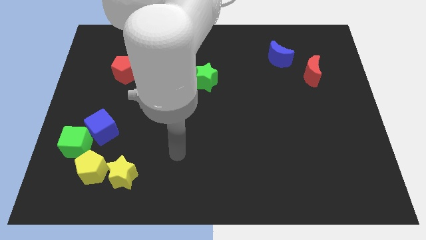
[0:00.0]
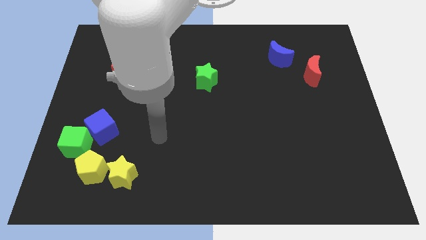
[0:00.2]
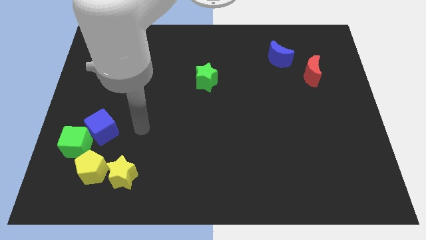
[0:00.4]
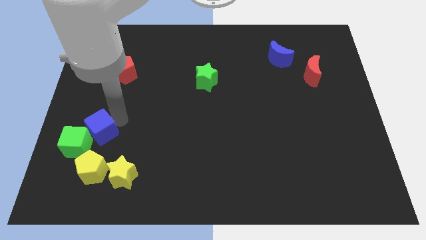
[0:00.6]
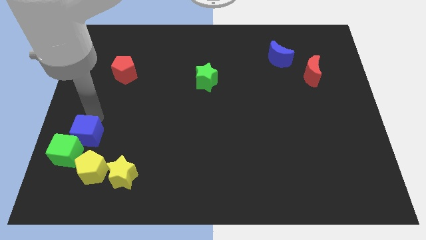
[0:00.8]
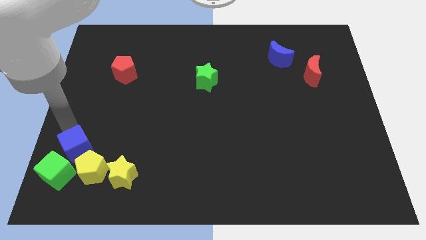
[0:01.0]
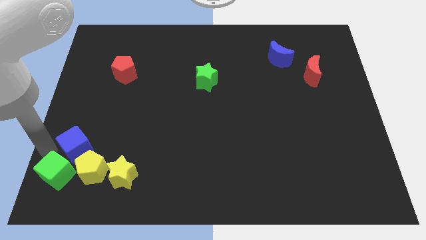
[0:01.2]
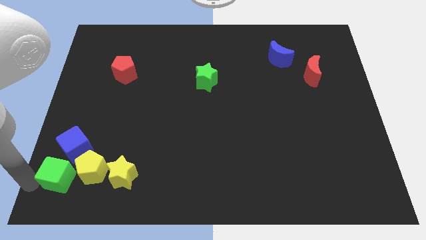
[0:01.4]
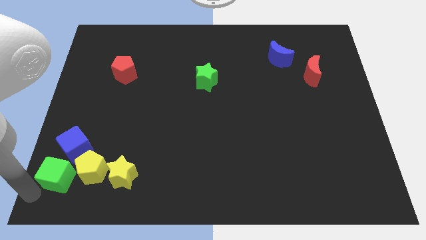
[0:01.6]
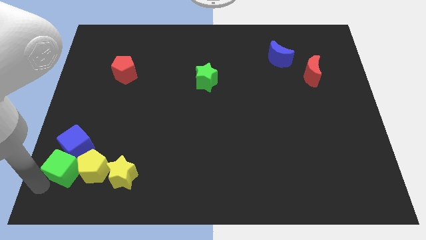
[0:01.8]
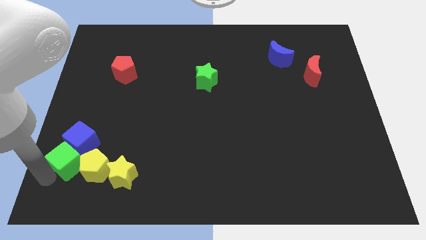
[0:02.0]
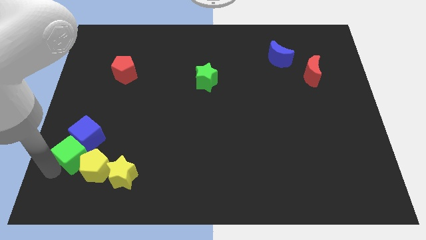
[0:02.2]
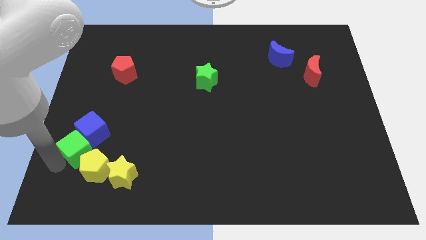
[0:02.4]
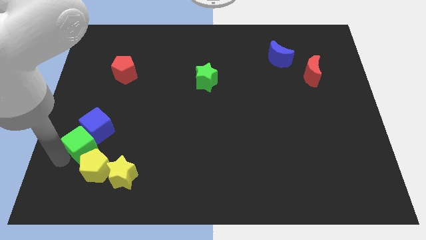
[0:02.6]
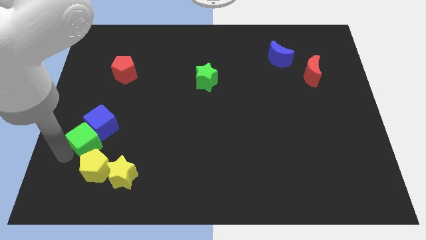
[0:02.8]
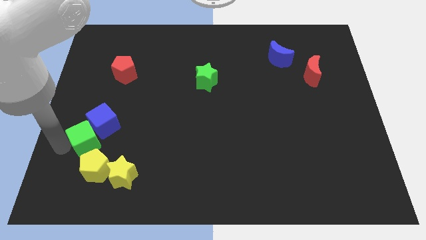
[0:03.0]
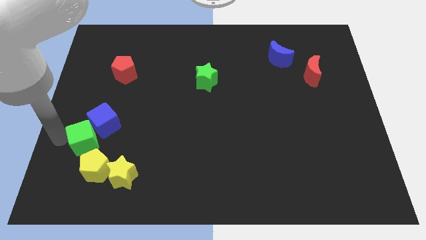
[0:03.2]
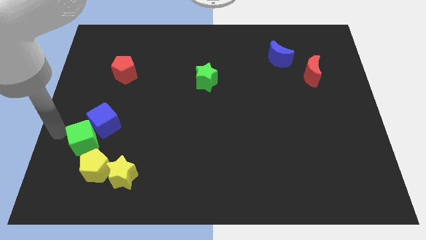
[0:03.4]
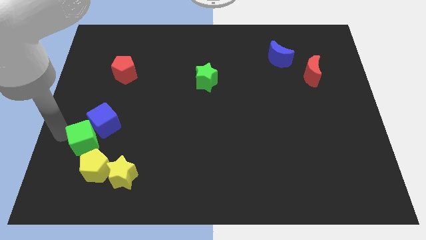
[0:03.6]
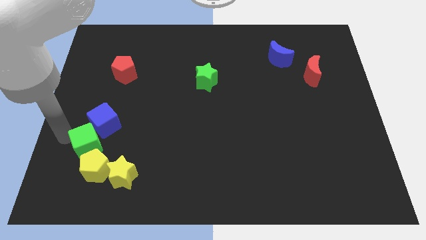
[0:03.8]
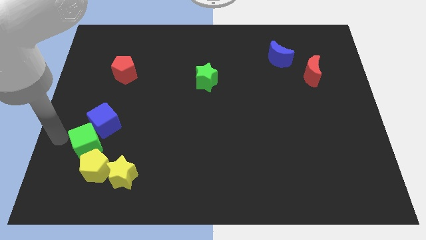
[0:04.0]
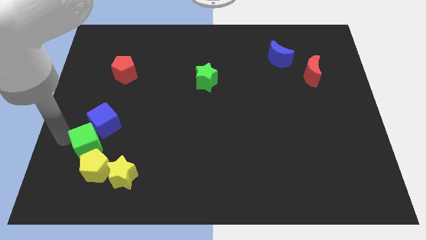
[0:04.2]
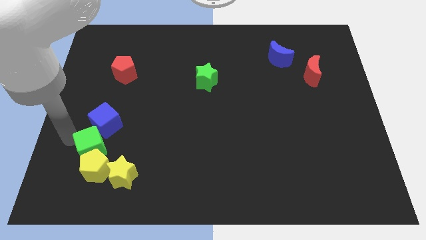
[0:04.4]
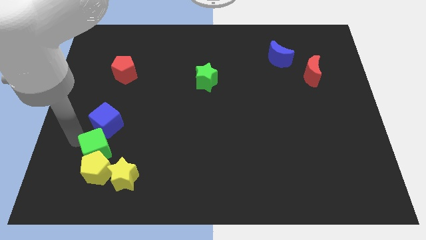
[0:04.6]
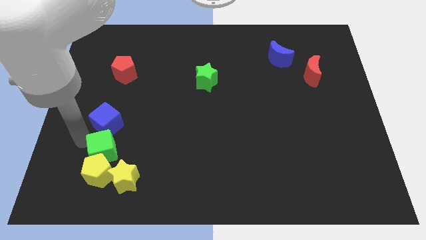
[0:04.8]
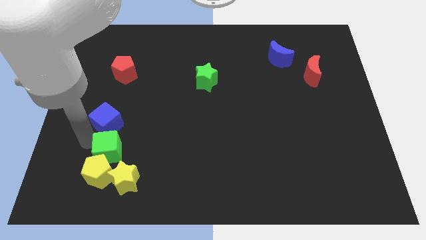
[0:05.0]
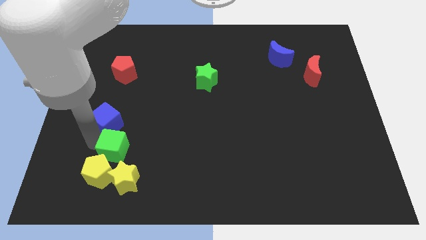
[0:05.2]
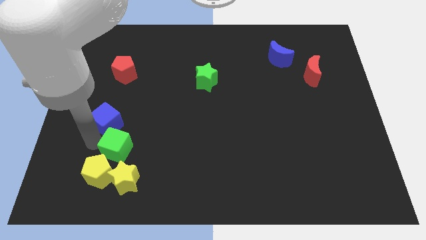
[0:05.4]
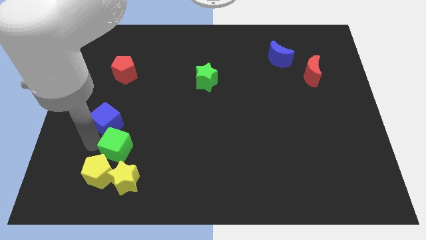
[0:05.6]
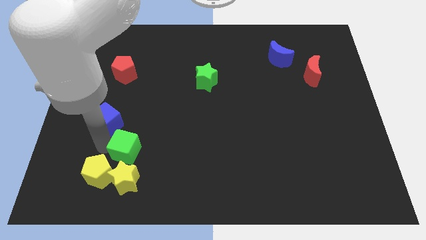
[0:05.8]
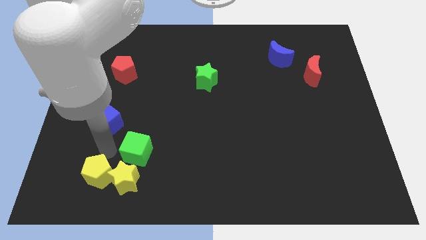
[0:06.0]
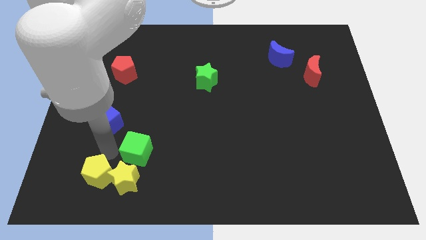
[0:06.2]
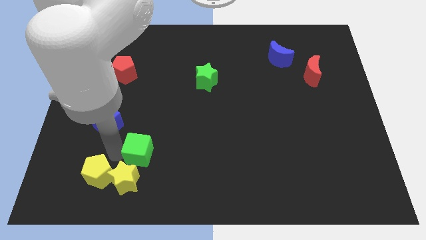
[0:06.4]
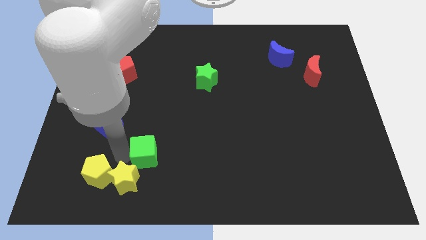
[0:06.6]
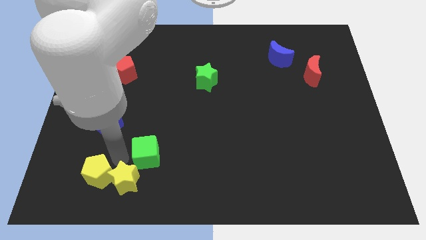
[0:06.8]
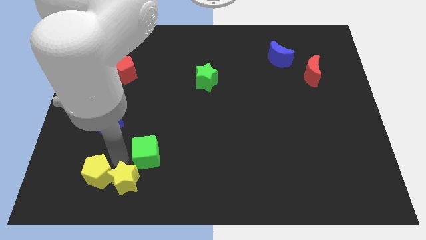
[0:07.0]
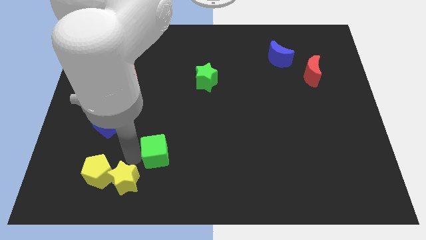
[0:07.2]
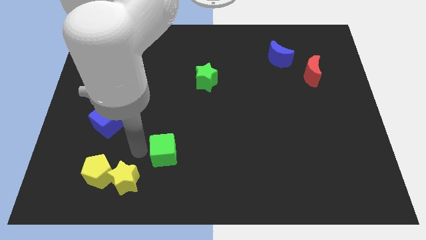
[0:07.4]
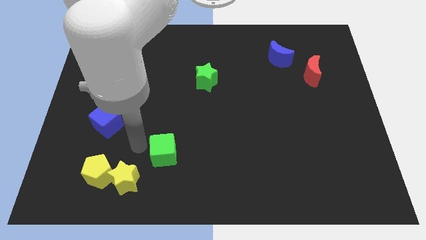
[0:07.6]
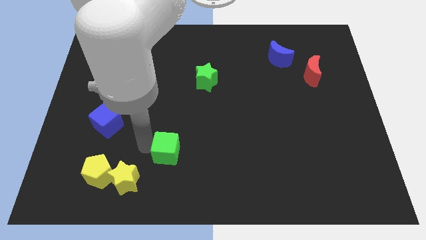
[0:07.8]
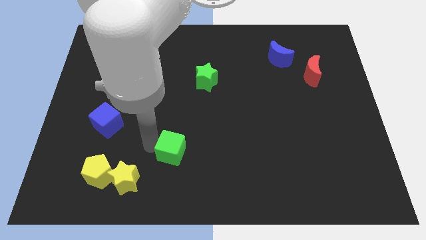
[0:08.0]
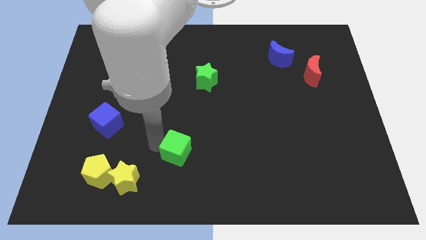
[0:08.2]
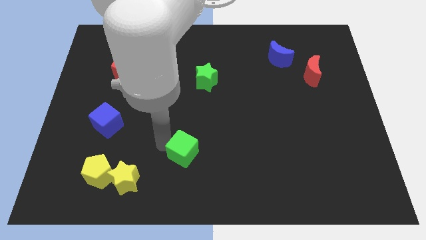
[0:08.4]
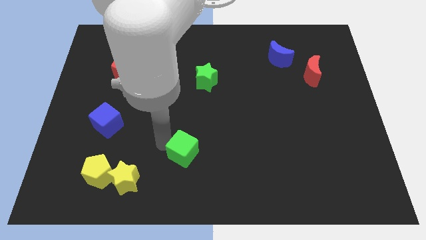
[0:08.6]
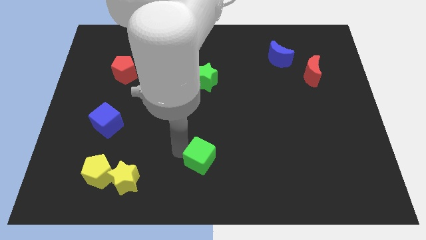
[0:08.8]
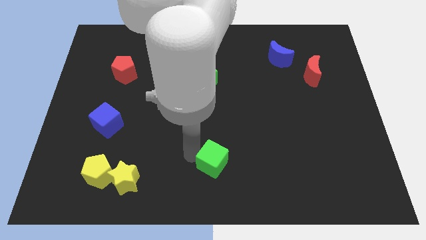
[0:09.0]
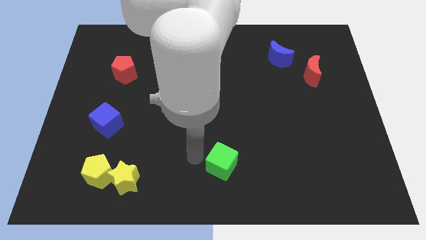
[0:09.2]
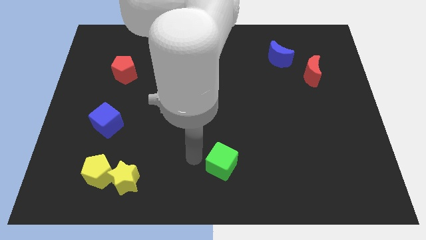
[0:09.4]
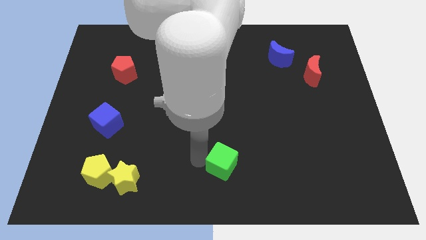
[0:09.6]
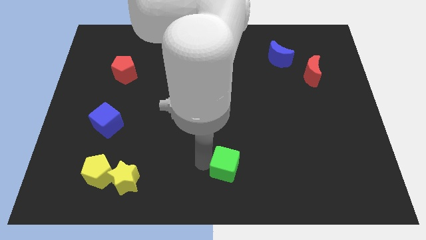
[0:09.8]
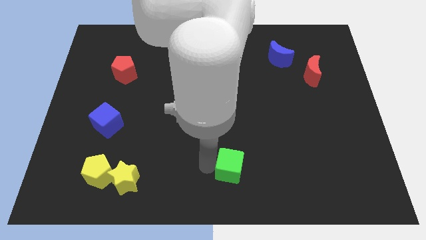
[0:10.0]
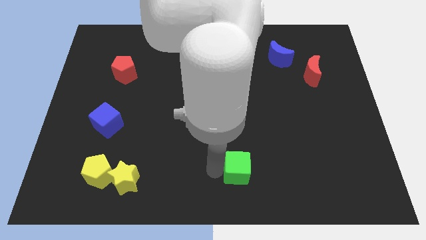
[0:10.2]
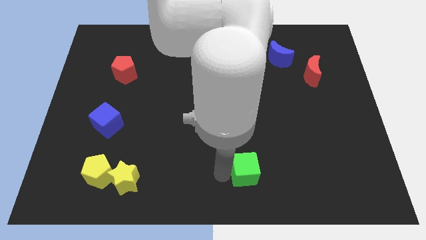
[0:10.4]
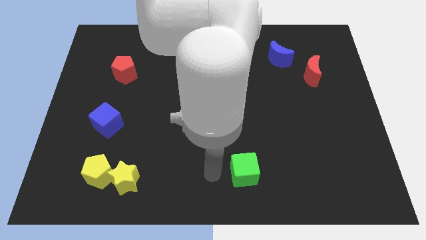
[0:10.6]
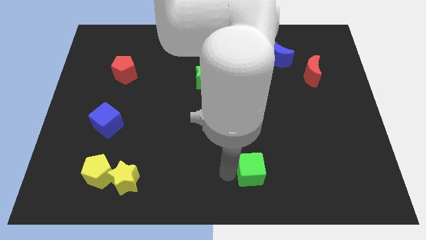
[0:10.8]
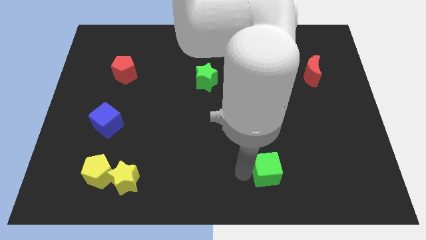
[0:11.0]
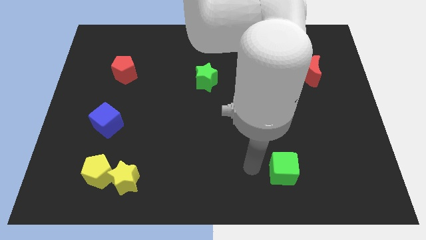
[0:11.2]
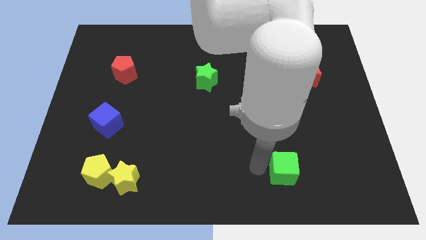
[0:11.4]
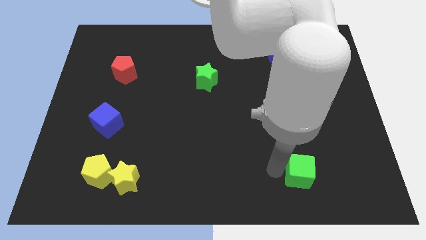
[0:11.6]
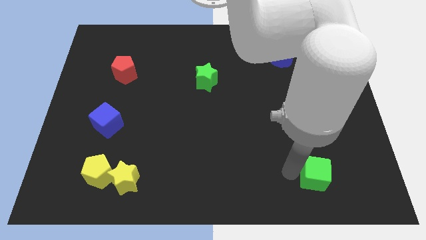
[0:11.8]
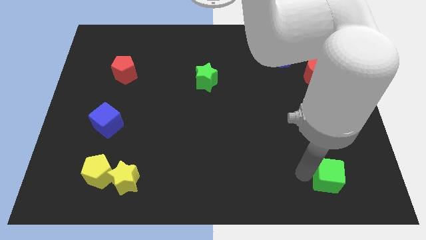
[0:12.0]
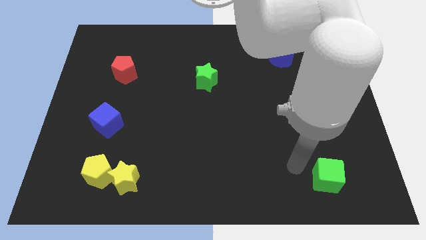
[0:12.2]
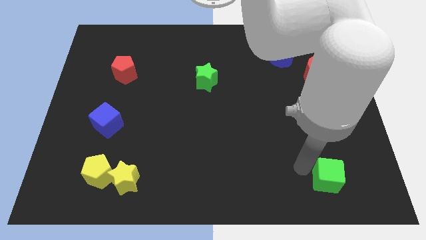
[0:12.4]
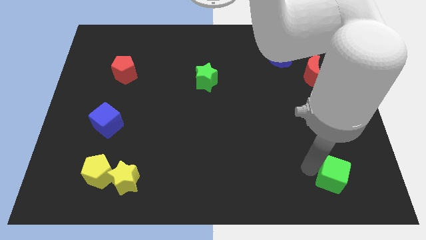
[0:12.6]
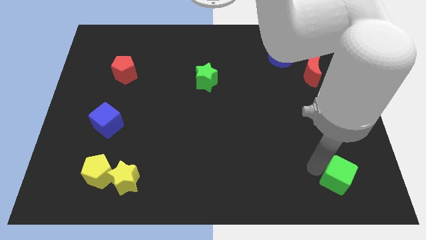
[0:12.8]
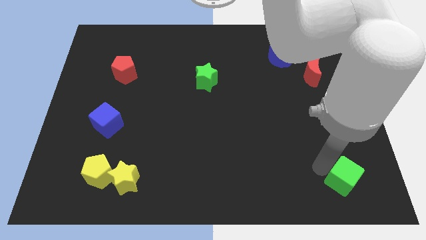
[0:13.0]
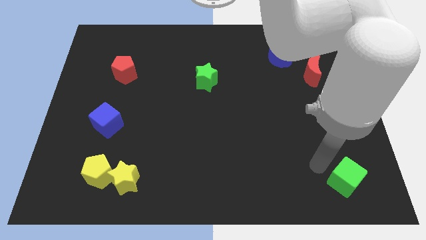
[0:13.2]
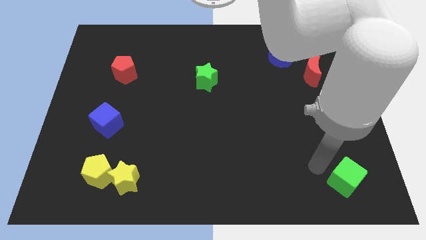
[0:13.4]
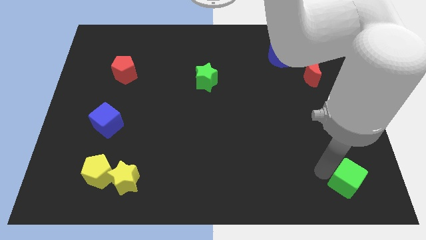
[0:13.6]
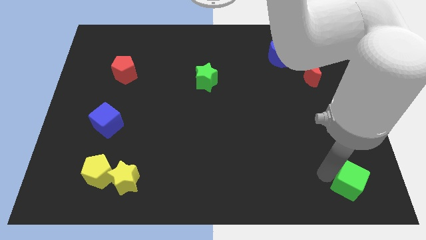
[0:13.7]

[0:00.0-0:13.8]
move the green cube to the bottom right corner
